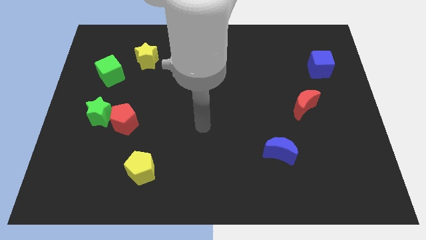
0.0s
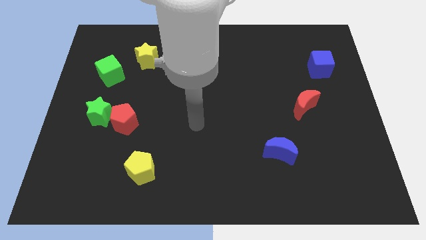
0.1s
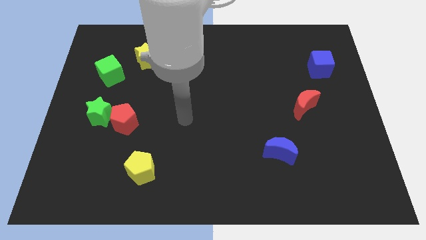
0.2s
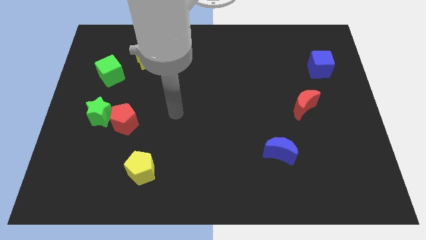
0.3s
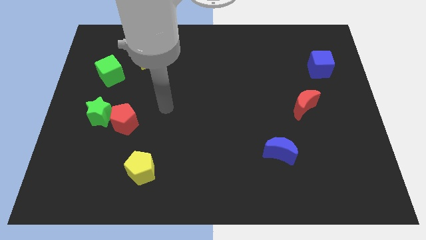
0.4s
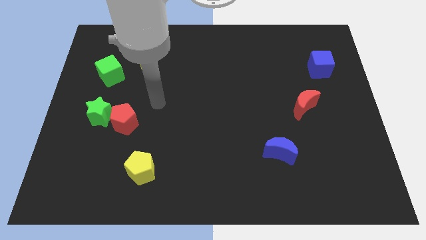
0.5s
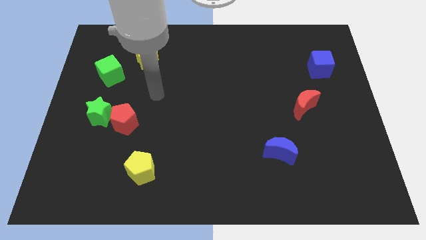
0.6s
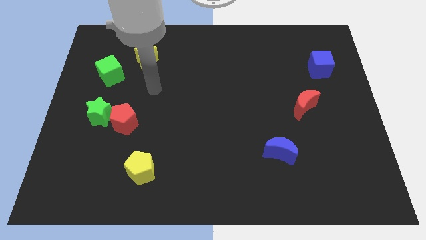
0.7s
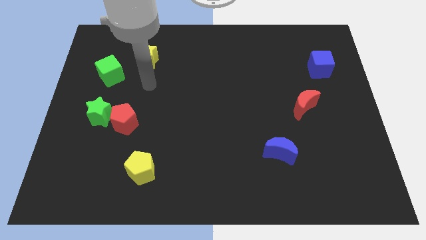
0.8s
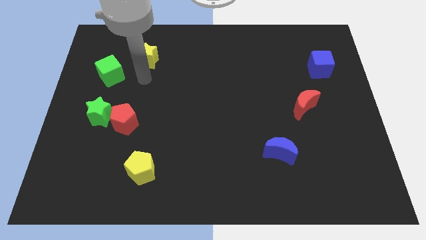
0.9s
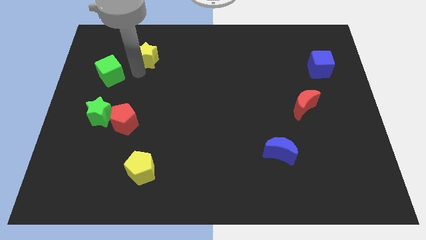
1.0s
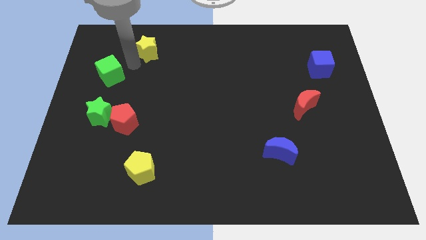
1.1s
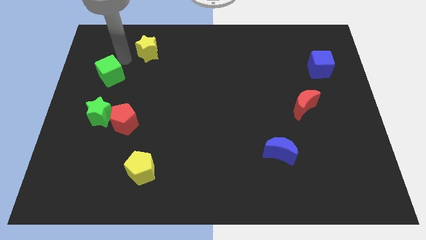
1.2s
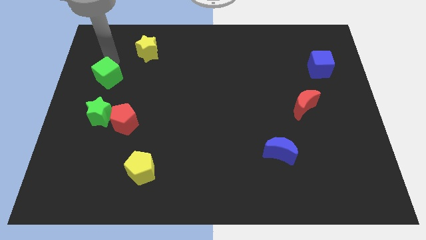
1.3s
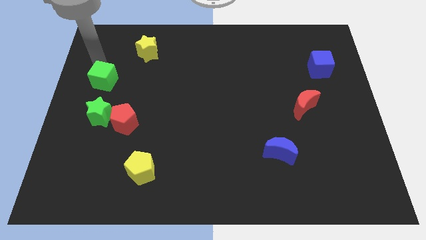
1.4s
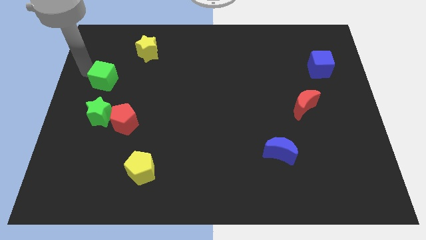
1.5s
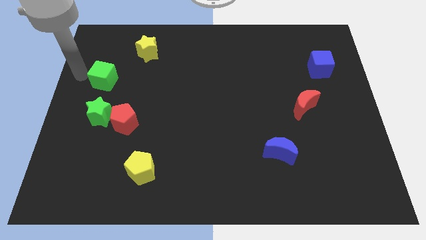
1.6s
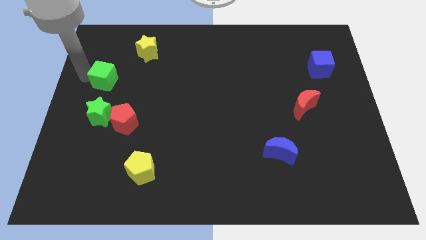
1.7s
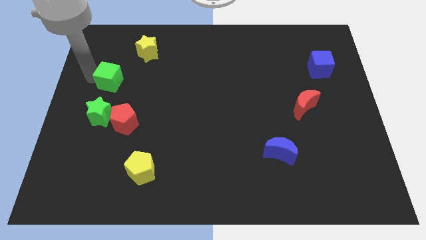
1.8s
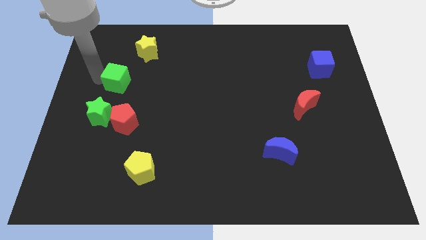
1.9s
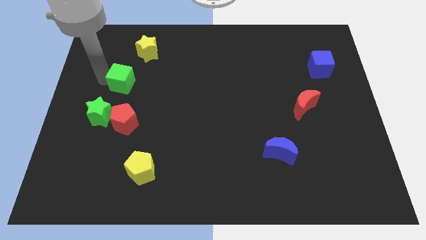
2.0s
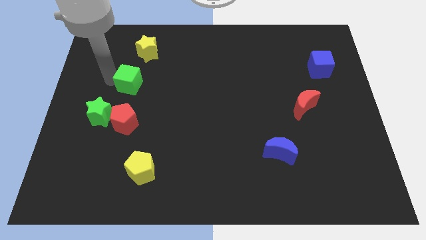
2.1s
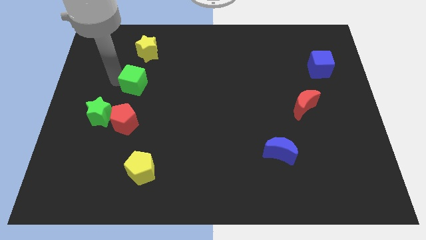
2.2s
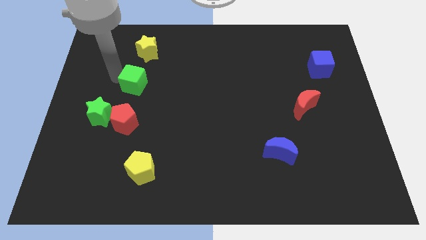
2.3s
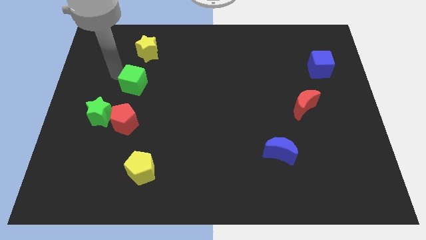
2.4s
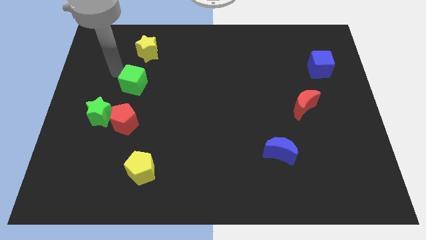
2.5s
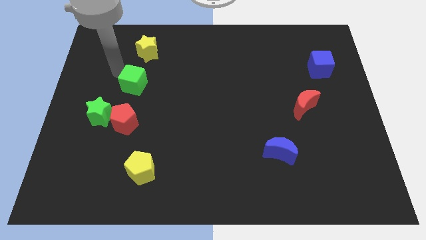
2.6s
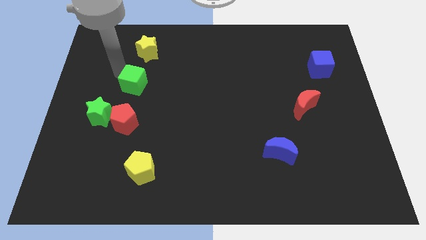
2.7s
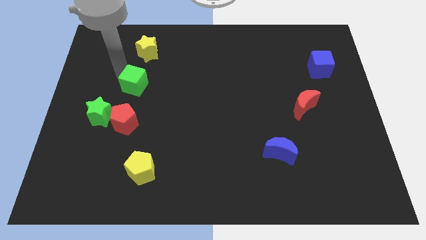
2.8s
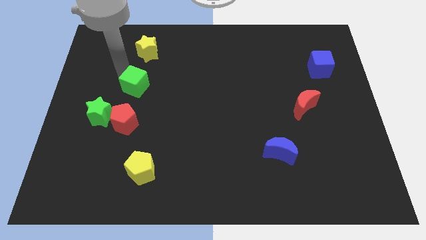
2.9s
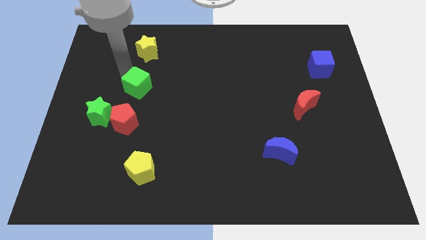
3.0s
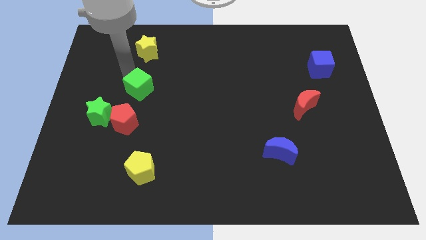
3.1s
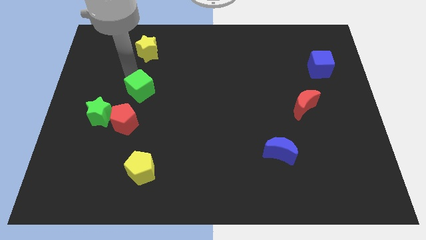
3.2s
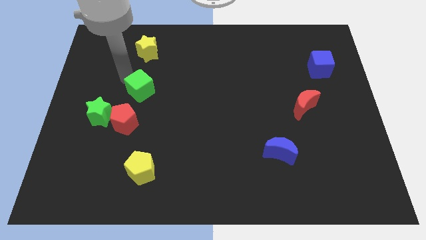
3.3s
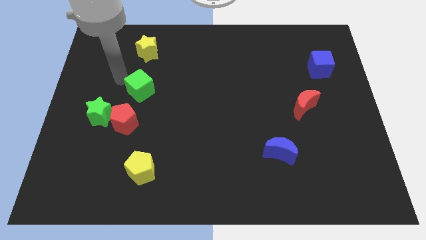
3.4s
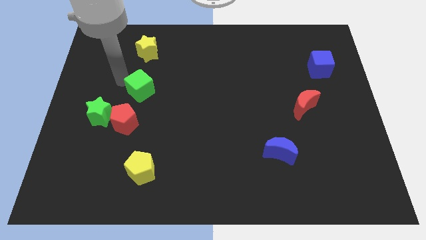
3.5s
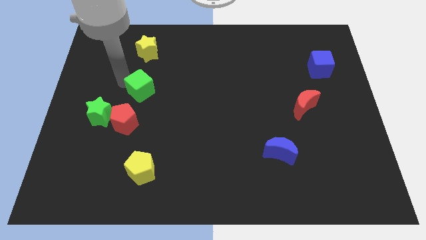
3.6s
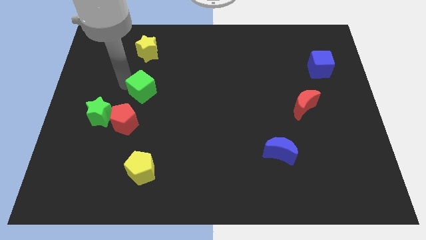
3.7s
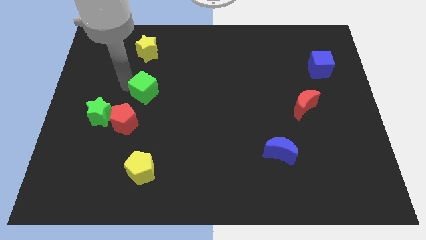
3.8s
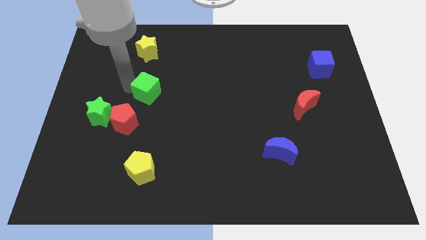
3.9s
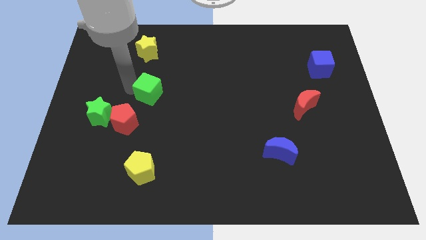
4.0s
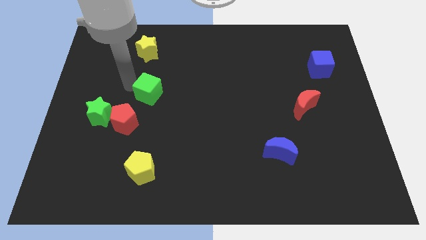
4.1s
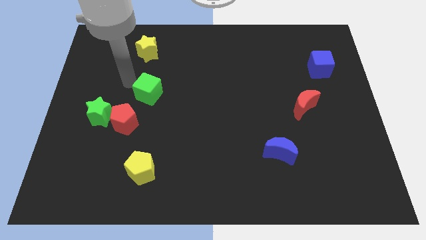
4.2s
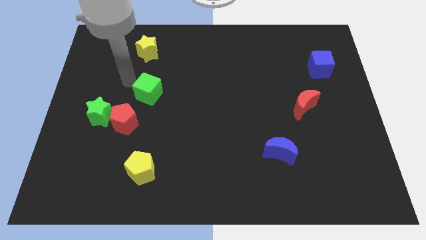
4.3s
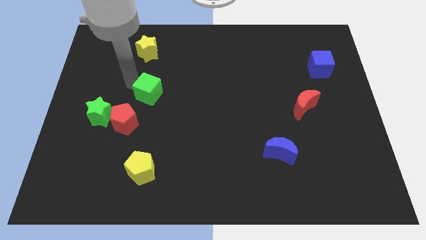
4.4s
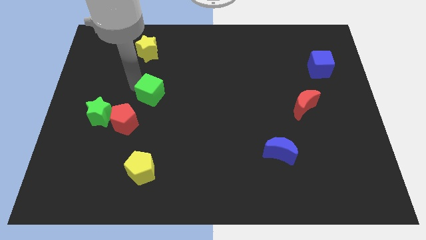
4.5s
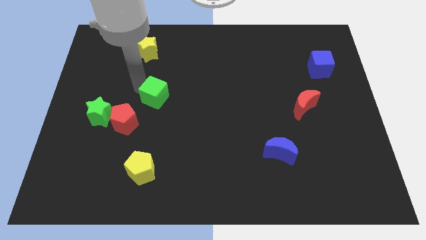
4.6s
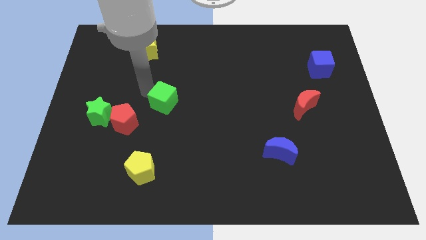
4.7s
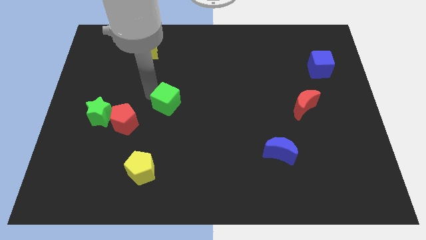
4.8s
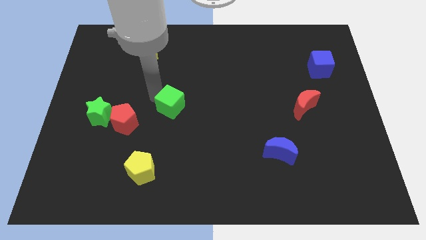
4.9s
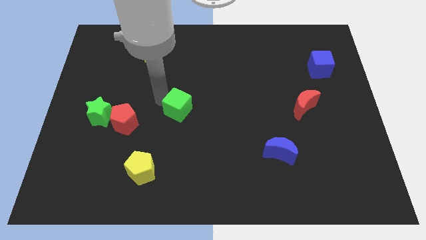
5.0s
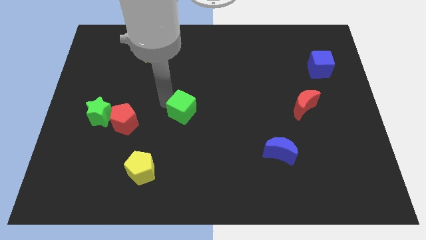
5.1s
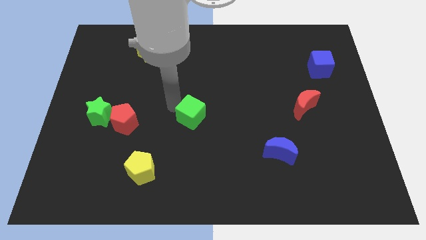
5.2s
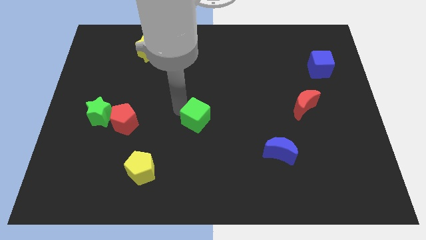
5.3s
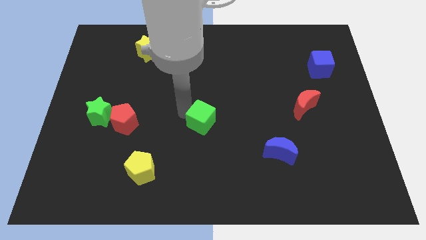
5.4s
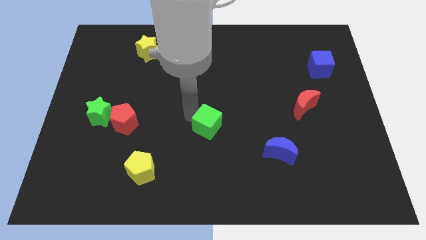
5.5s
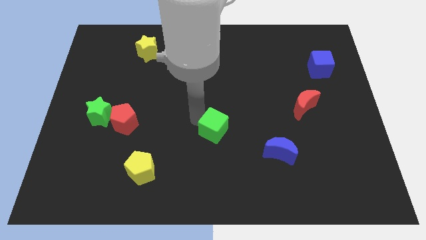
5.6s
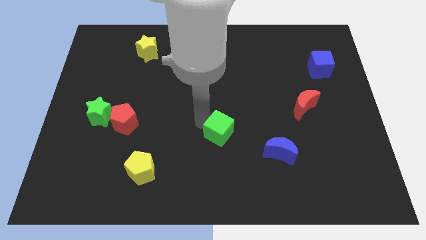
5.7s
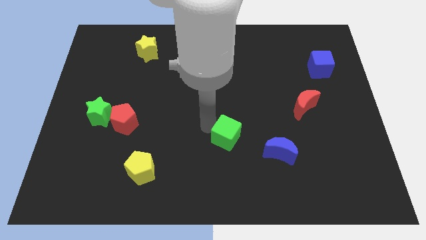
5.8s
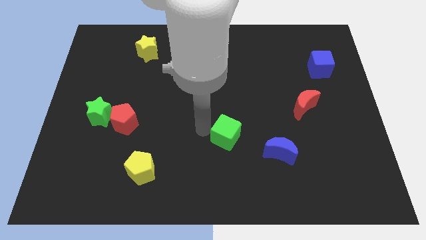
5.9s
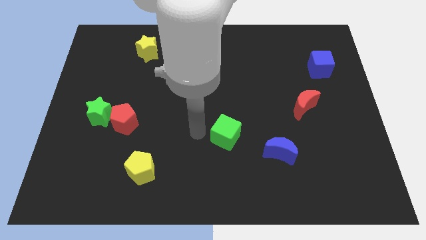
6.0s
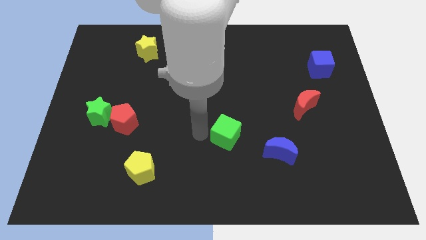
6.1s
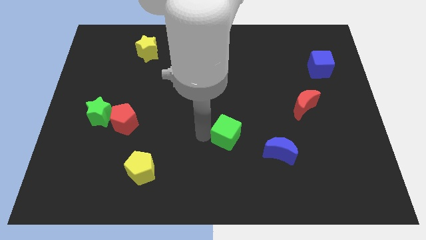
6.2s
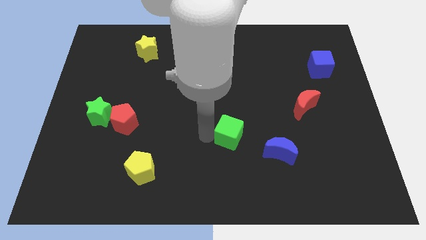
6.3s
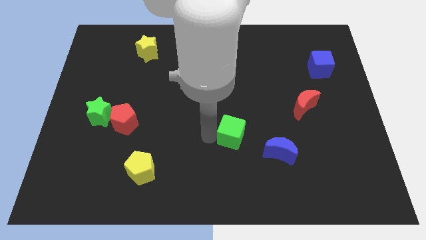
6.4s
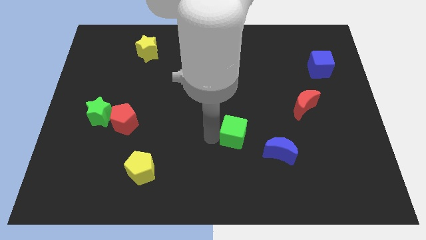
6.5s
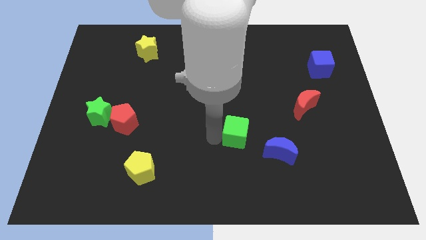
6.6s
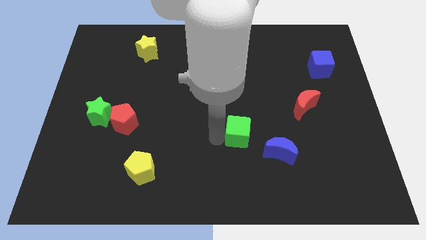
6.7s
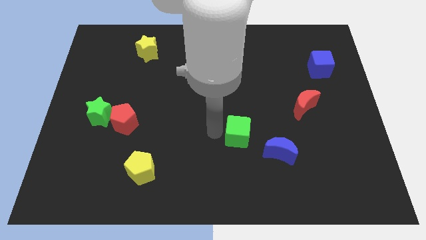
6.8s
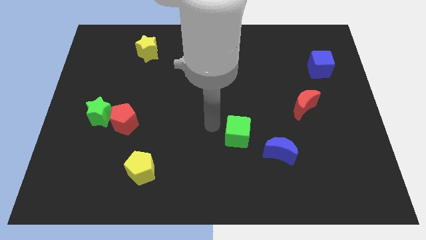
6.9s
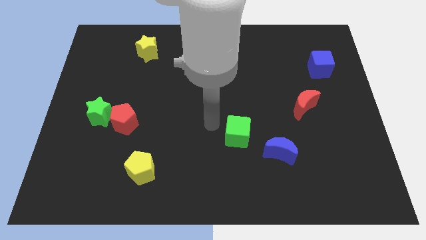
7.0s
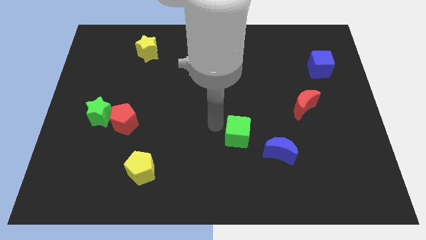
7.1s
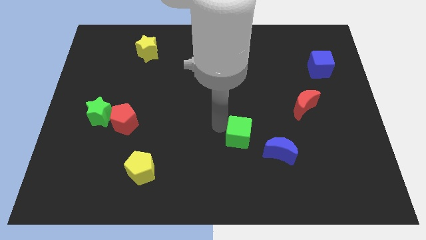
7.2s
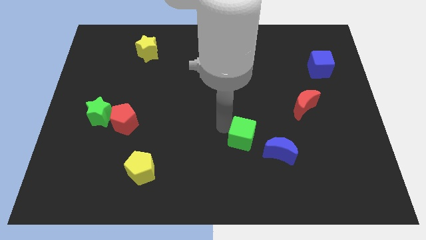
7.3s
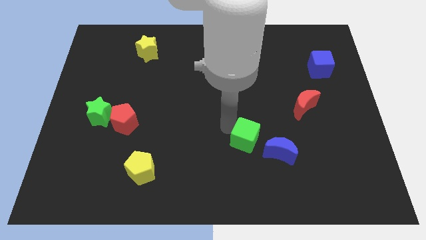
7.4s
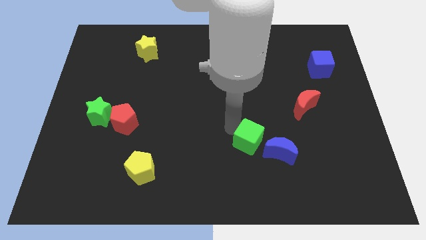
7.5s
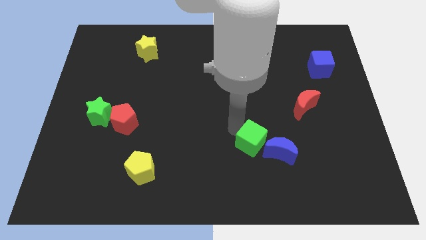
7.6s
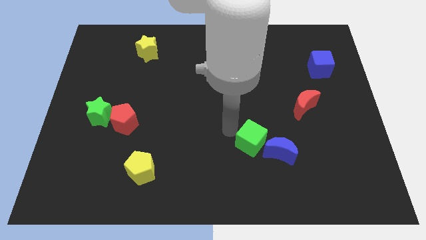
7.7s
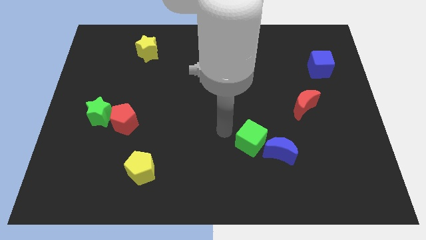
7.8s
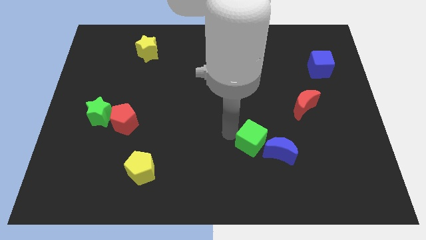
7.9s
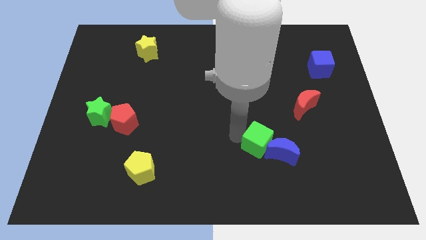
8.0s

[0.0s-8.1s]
move the green cube close to the blue moon
